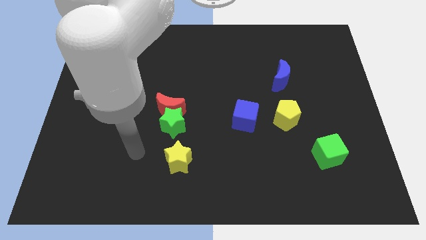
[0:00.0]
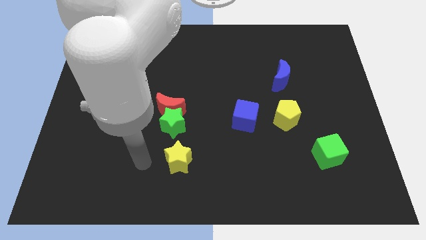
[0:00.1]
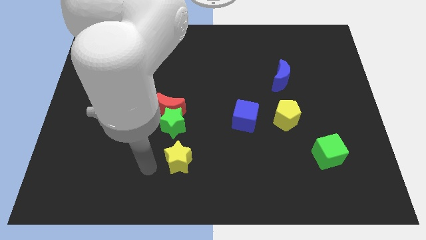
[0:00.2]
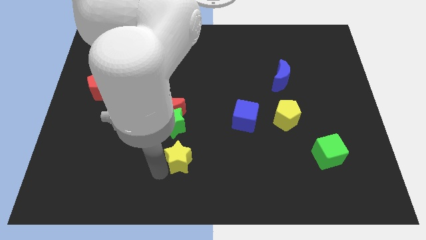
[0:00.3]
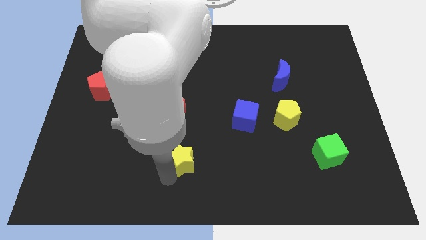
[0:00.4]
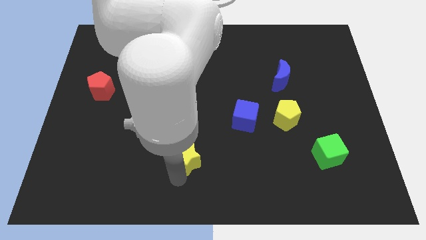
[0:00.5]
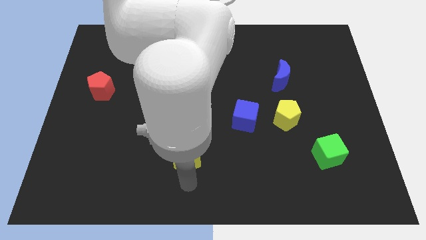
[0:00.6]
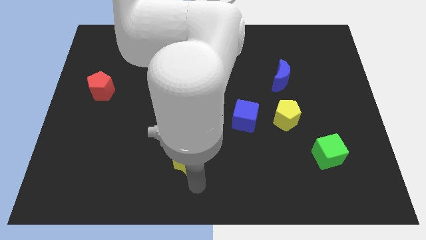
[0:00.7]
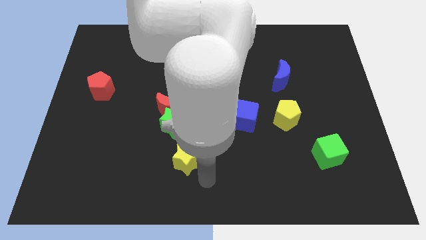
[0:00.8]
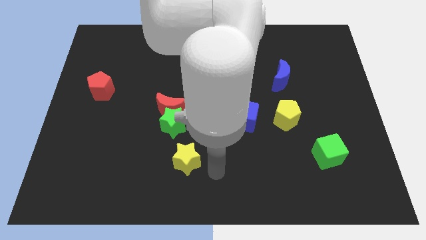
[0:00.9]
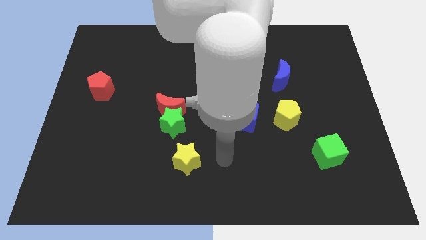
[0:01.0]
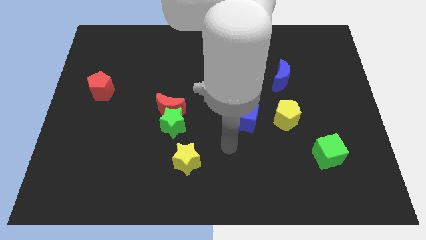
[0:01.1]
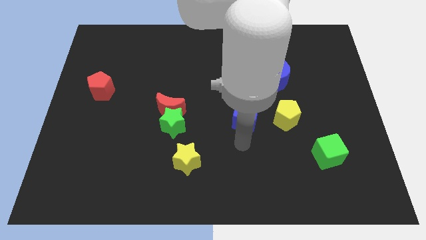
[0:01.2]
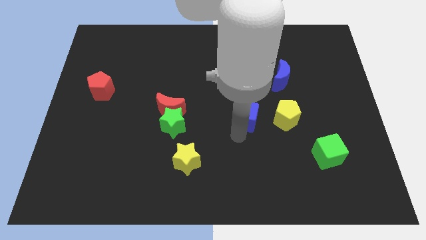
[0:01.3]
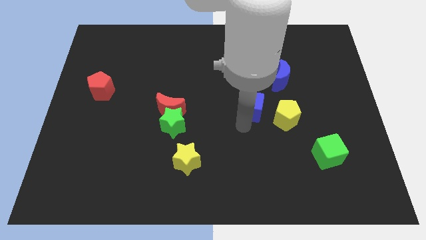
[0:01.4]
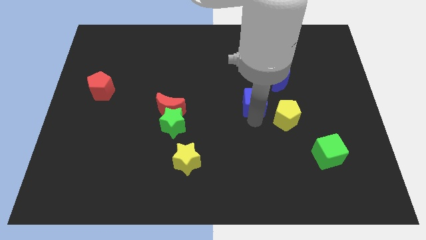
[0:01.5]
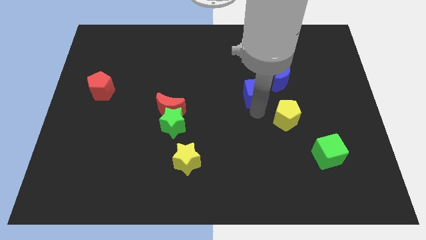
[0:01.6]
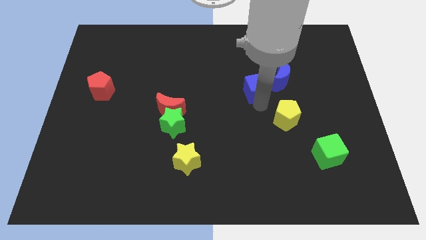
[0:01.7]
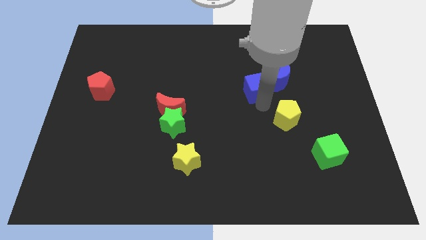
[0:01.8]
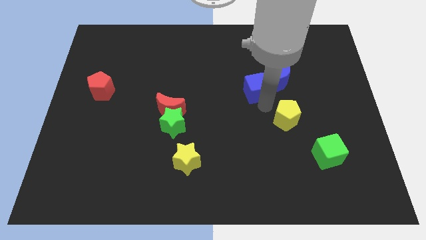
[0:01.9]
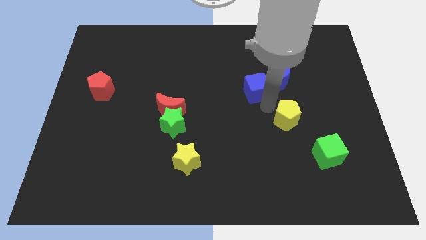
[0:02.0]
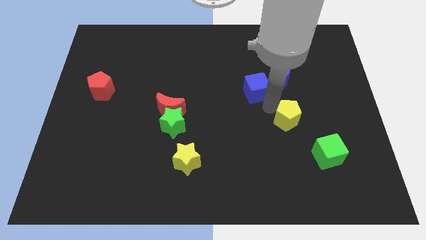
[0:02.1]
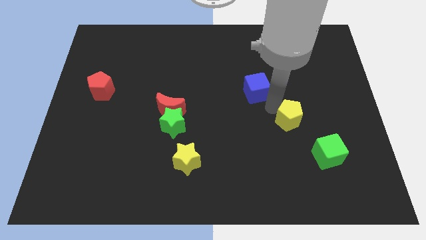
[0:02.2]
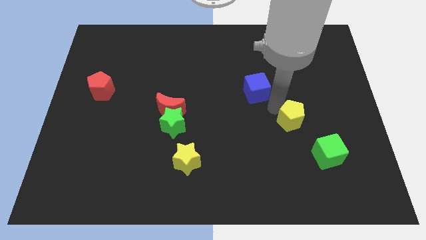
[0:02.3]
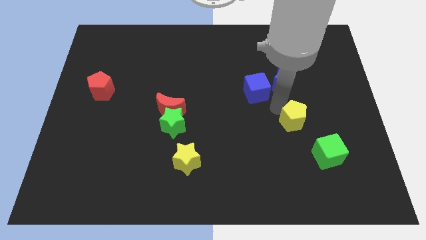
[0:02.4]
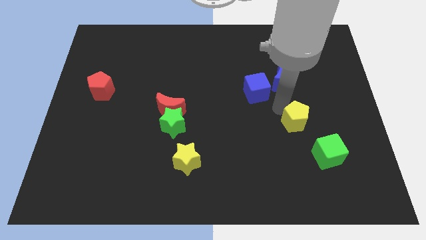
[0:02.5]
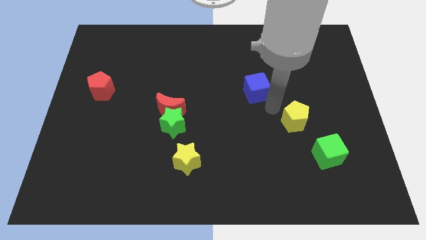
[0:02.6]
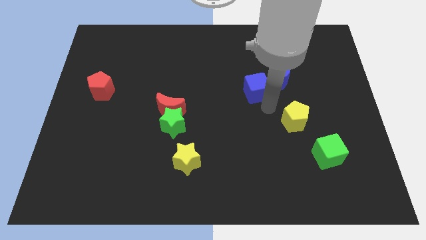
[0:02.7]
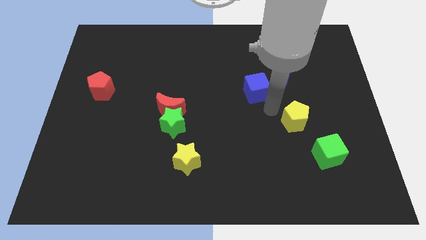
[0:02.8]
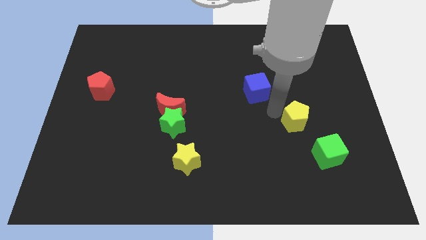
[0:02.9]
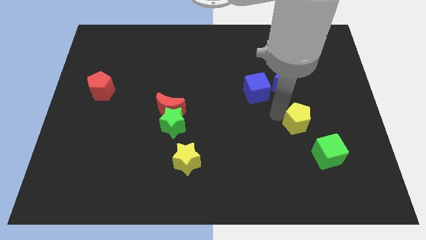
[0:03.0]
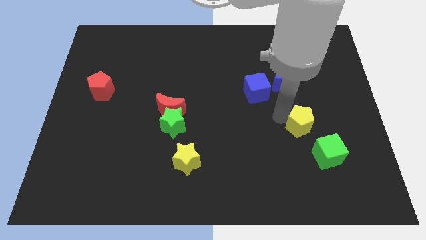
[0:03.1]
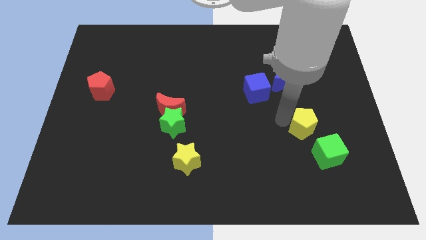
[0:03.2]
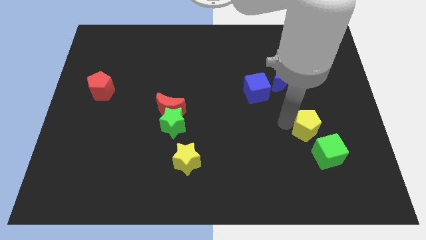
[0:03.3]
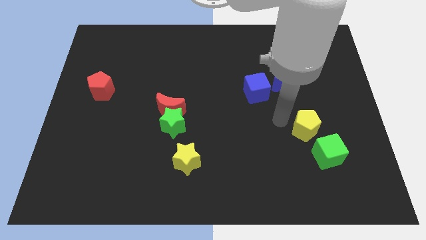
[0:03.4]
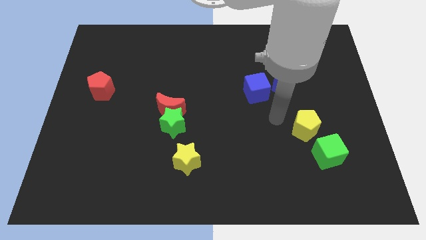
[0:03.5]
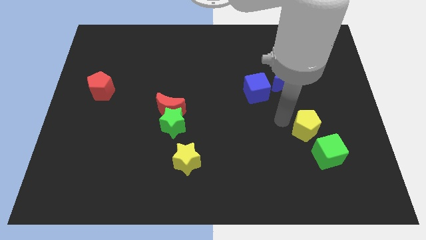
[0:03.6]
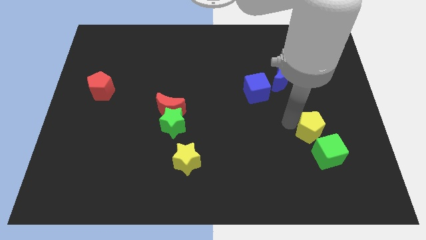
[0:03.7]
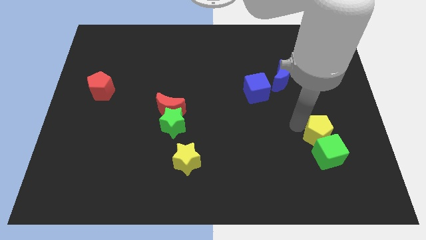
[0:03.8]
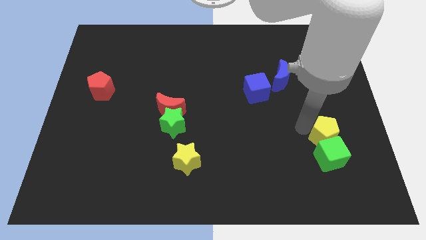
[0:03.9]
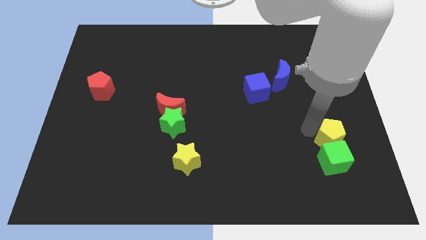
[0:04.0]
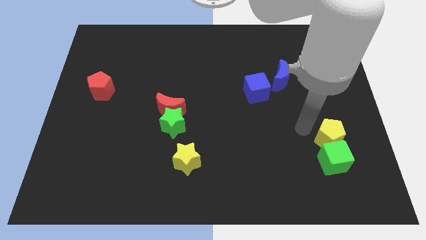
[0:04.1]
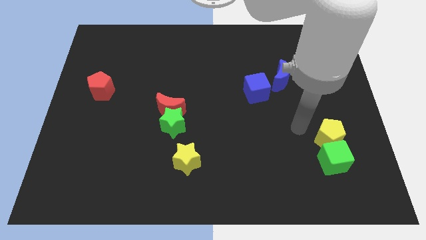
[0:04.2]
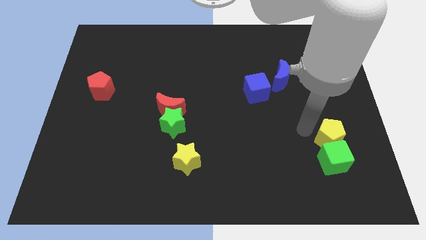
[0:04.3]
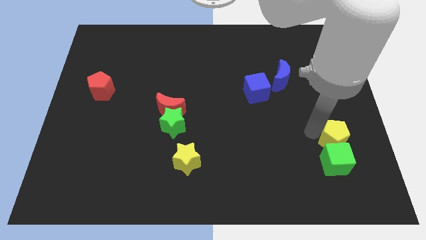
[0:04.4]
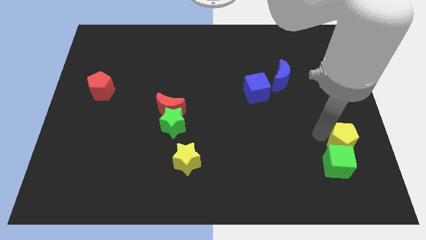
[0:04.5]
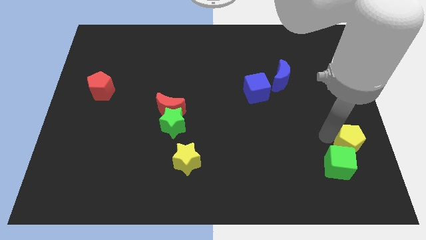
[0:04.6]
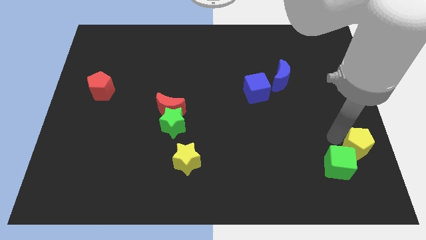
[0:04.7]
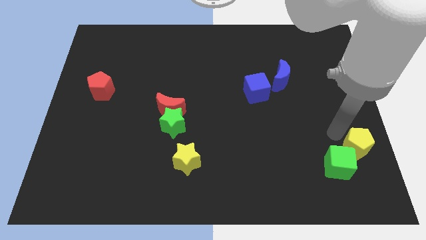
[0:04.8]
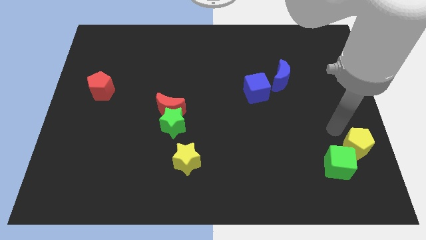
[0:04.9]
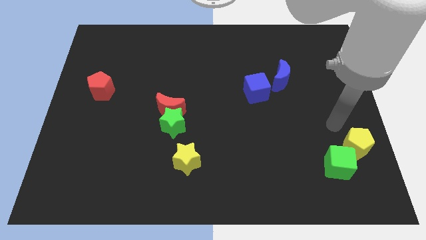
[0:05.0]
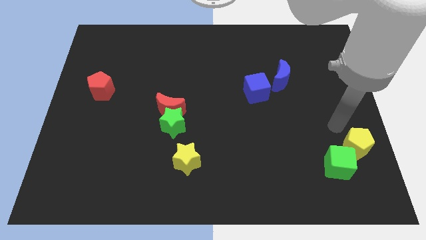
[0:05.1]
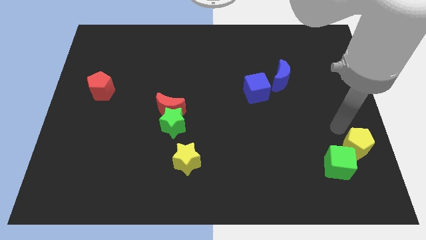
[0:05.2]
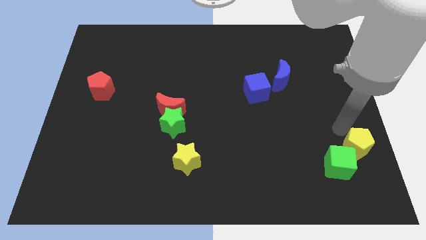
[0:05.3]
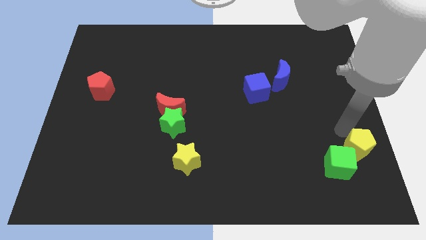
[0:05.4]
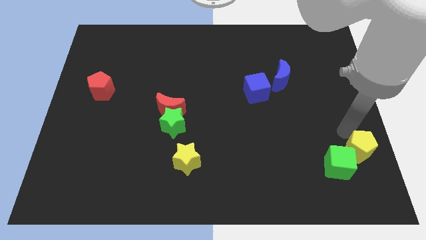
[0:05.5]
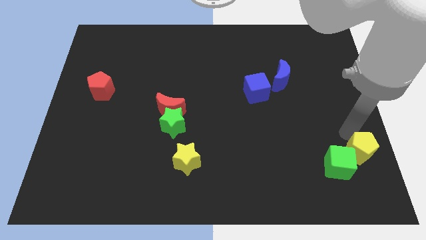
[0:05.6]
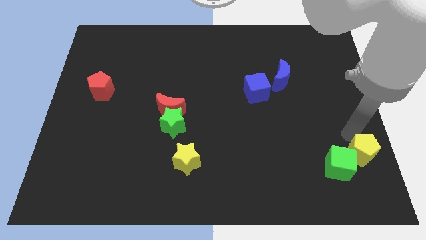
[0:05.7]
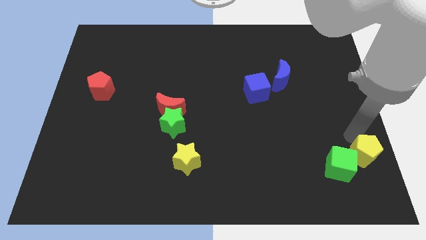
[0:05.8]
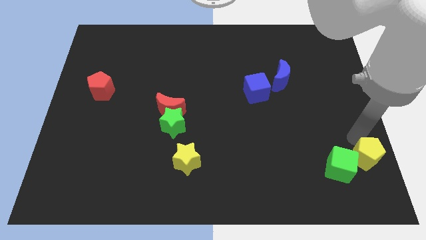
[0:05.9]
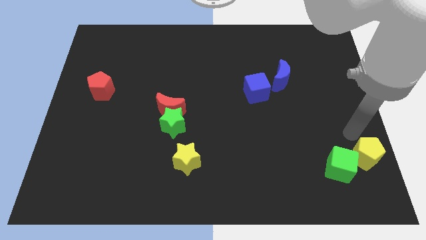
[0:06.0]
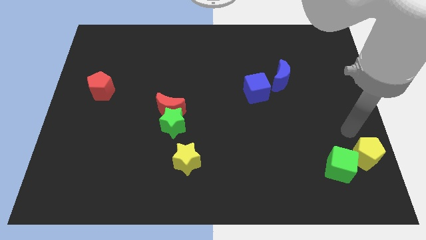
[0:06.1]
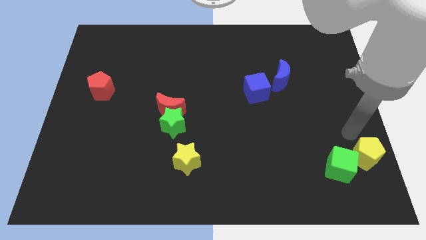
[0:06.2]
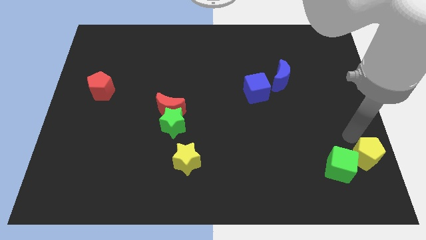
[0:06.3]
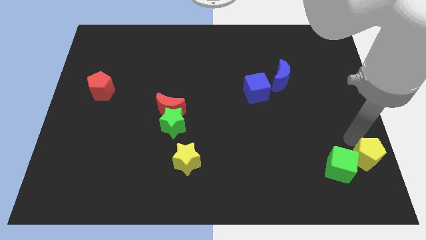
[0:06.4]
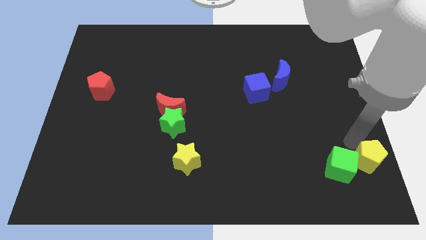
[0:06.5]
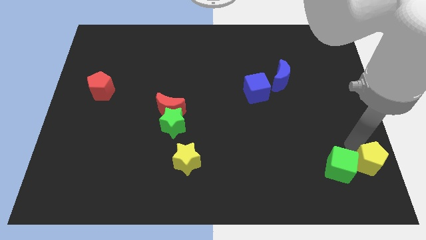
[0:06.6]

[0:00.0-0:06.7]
push the yellow pentagon to the bottom right of the board
